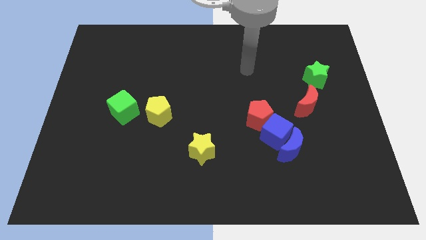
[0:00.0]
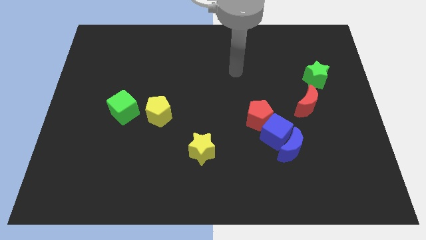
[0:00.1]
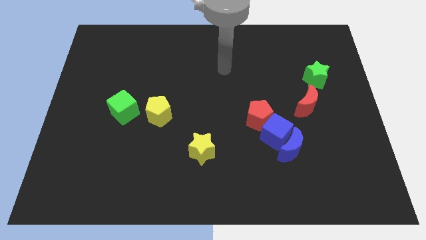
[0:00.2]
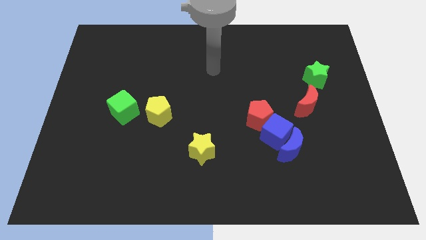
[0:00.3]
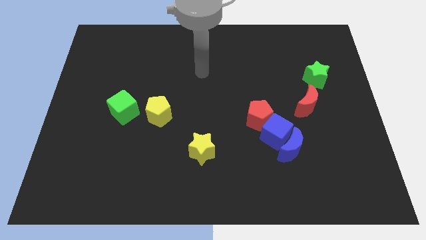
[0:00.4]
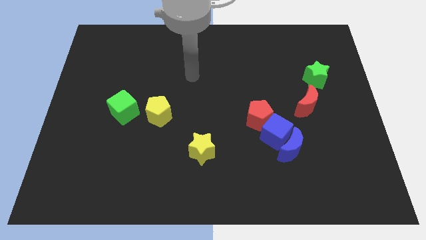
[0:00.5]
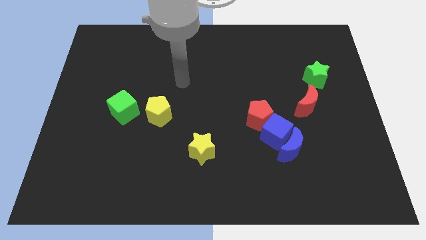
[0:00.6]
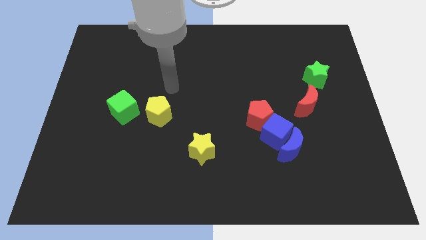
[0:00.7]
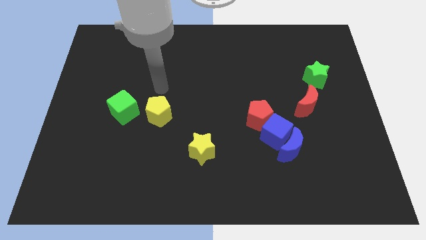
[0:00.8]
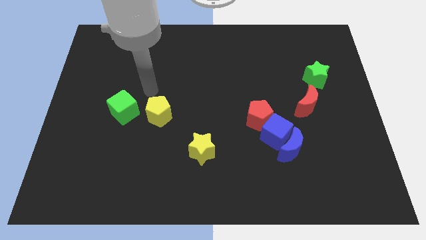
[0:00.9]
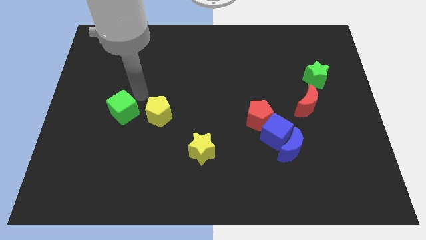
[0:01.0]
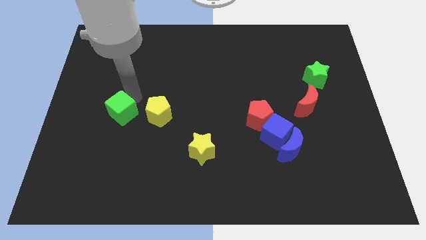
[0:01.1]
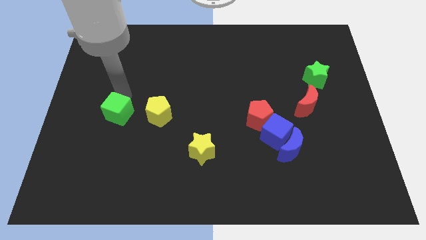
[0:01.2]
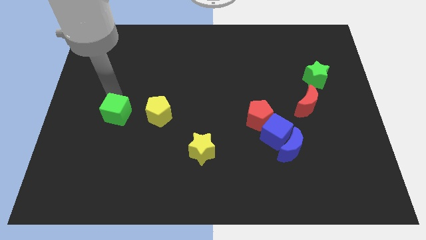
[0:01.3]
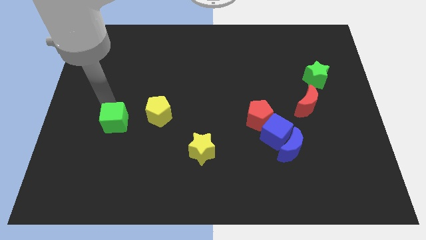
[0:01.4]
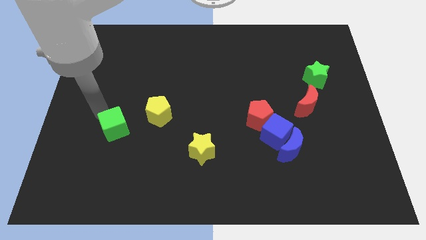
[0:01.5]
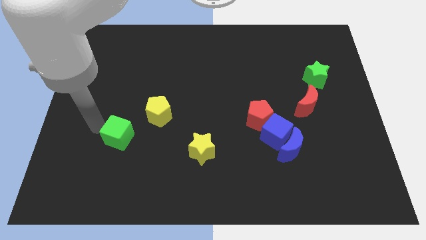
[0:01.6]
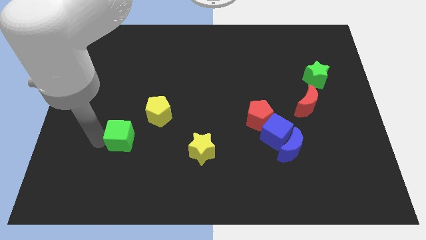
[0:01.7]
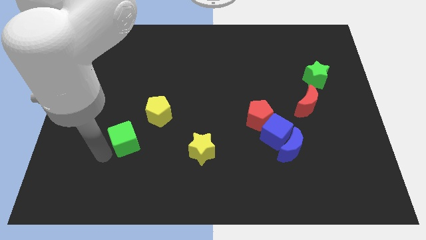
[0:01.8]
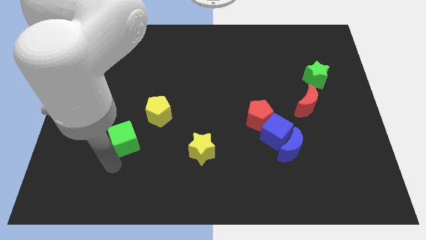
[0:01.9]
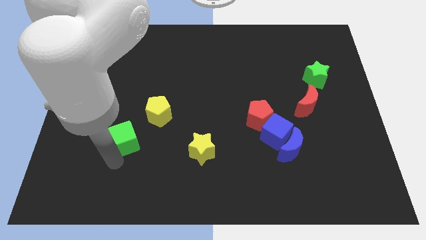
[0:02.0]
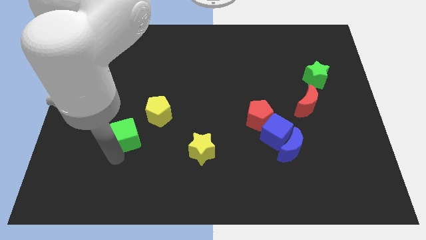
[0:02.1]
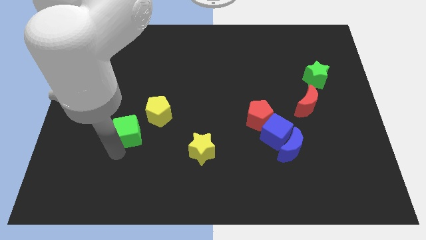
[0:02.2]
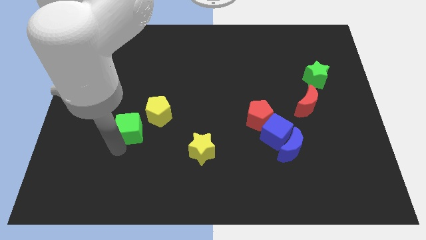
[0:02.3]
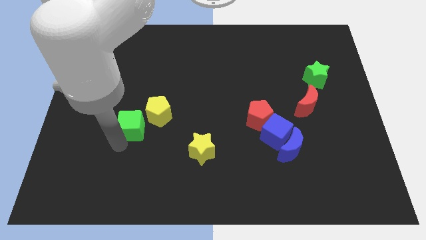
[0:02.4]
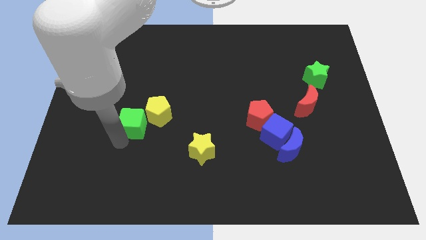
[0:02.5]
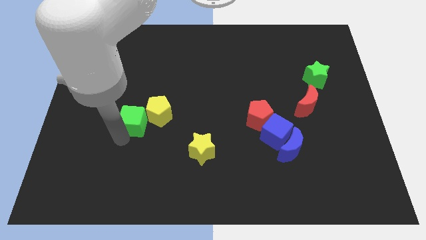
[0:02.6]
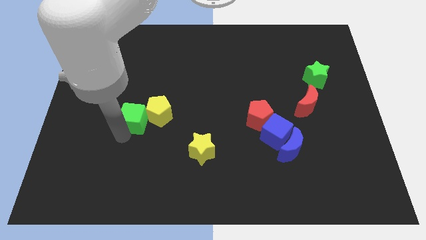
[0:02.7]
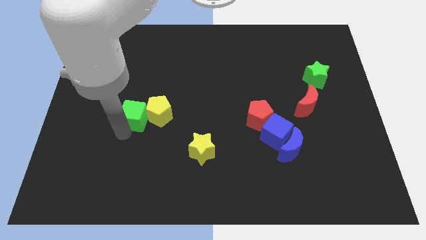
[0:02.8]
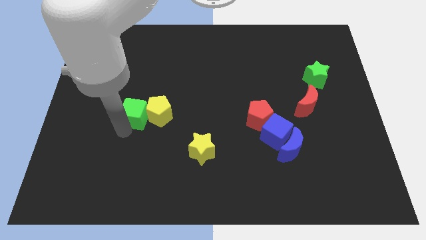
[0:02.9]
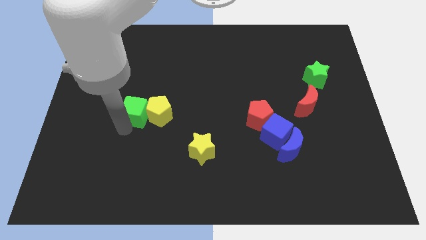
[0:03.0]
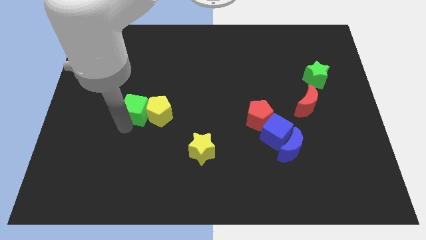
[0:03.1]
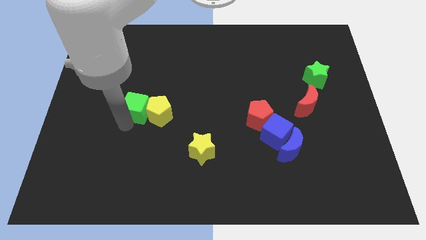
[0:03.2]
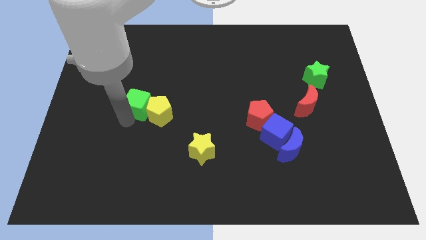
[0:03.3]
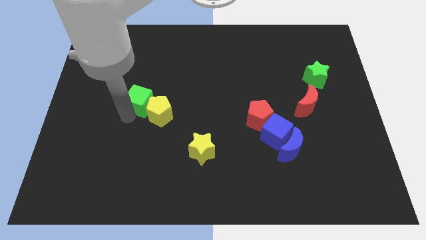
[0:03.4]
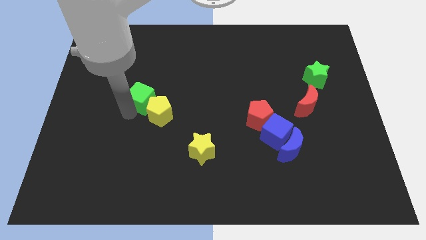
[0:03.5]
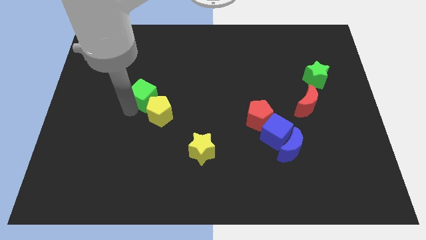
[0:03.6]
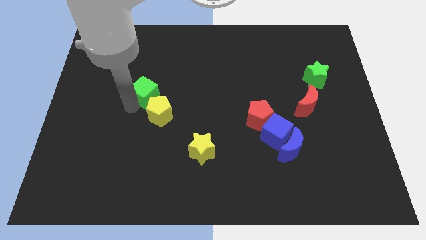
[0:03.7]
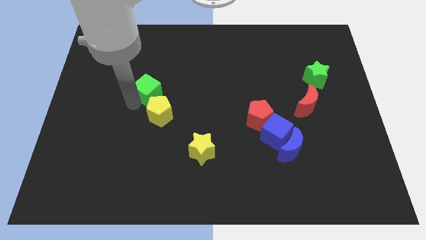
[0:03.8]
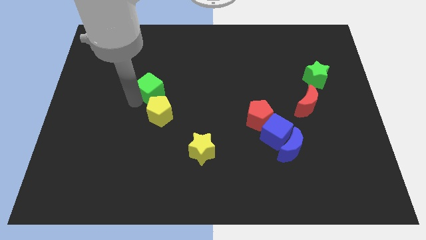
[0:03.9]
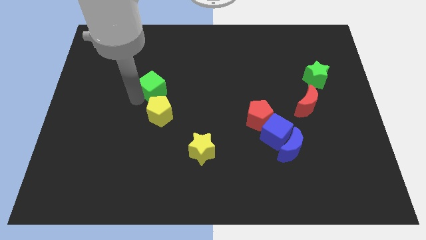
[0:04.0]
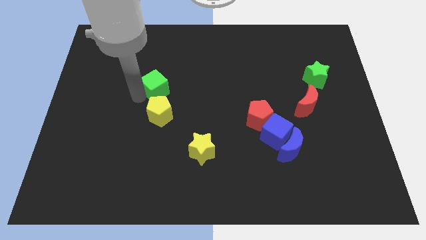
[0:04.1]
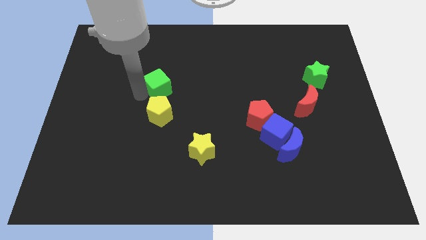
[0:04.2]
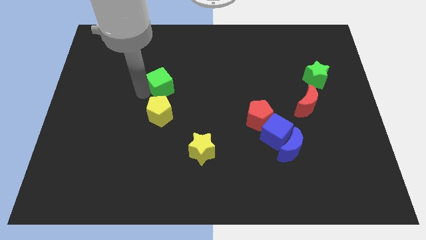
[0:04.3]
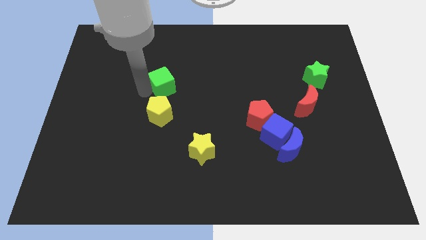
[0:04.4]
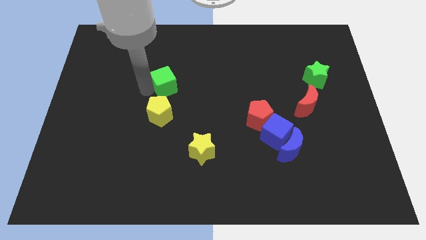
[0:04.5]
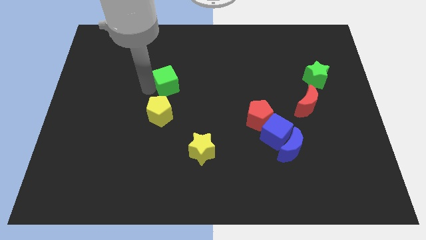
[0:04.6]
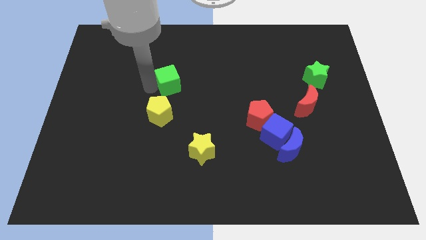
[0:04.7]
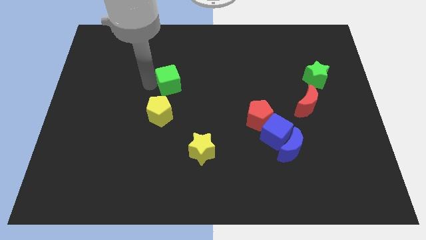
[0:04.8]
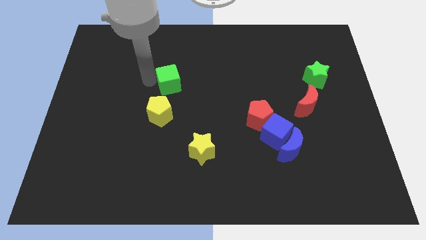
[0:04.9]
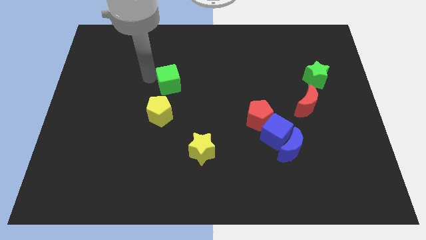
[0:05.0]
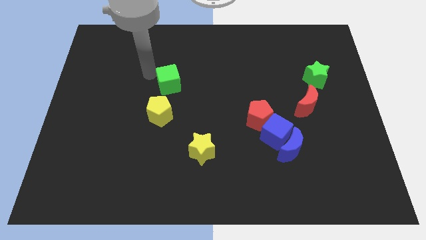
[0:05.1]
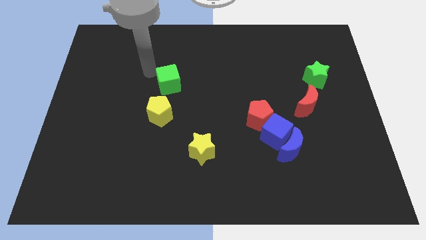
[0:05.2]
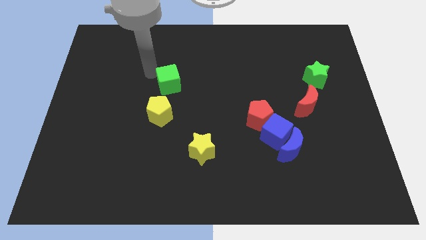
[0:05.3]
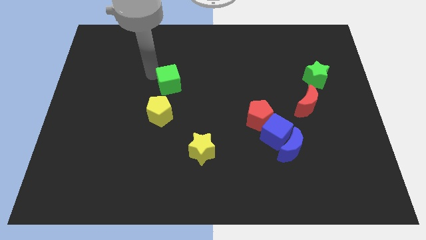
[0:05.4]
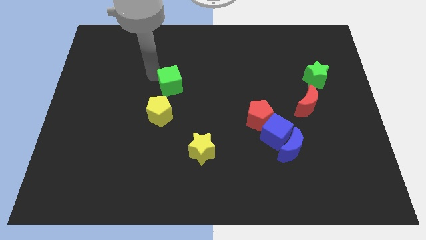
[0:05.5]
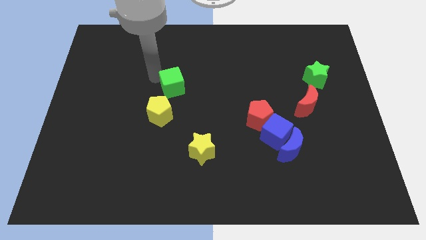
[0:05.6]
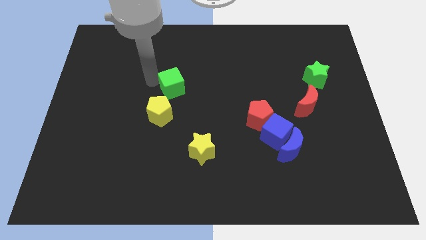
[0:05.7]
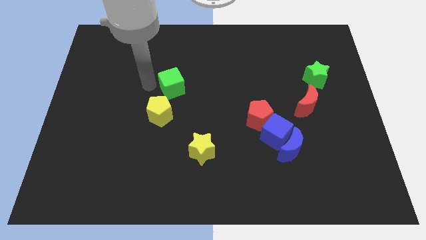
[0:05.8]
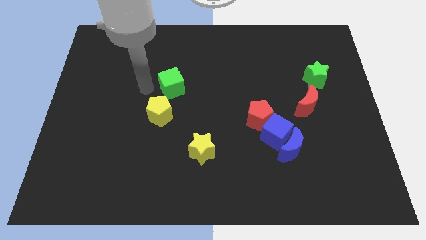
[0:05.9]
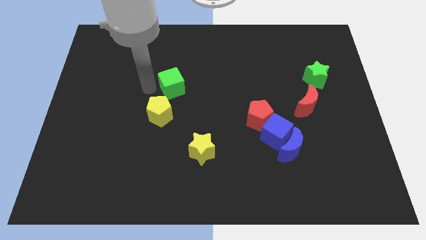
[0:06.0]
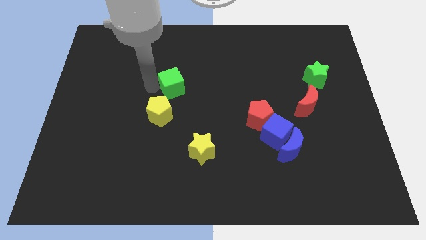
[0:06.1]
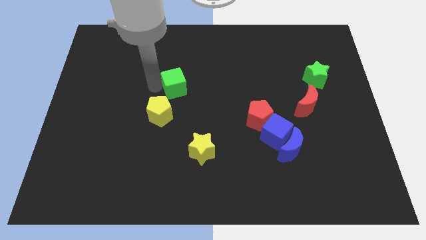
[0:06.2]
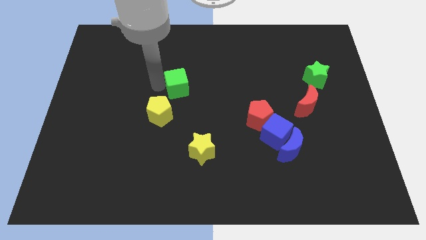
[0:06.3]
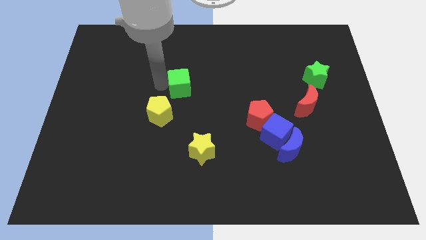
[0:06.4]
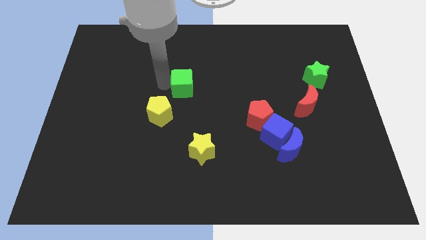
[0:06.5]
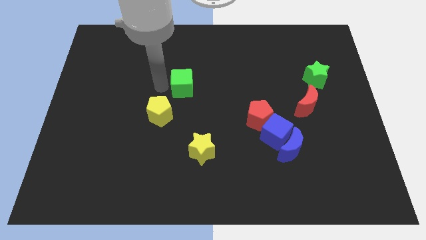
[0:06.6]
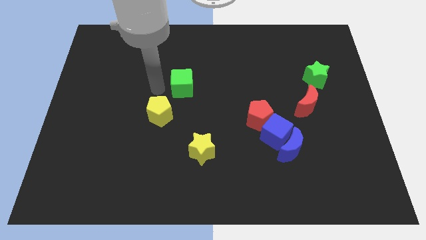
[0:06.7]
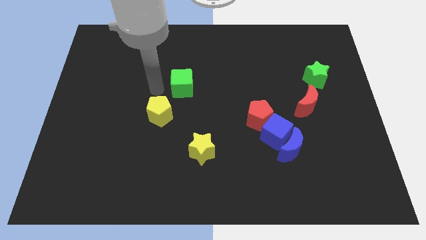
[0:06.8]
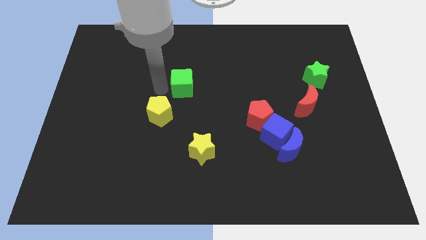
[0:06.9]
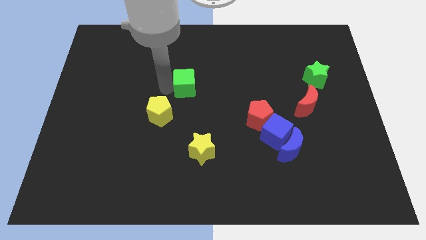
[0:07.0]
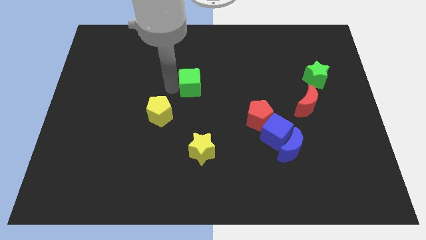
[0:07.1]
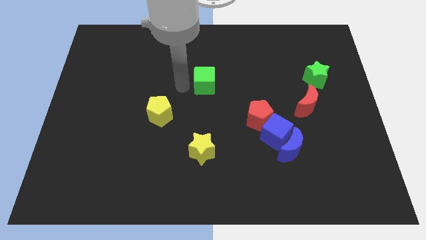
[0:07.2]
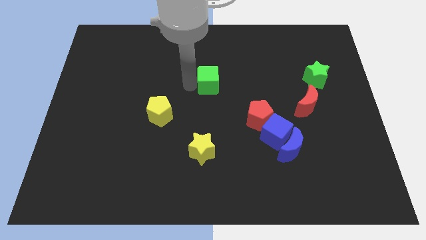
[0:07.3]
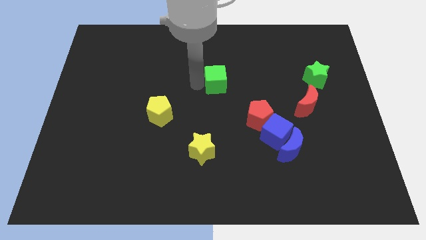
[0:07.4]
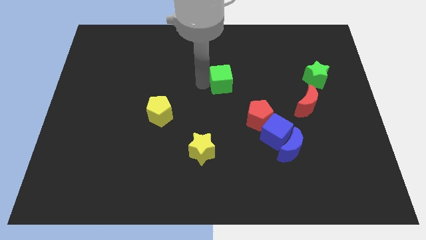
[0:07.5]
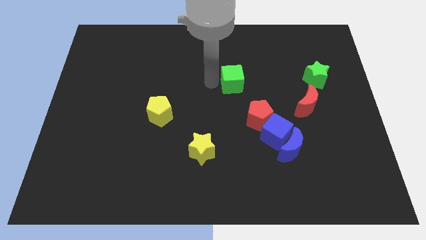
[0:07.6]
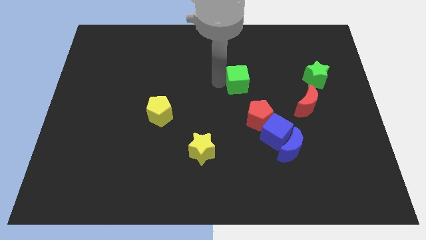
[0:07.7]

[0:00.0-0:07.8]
move the green cube to the top side of the red pentagon
